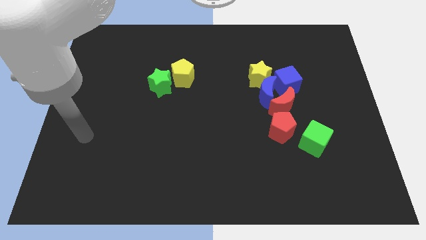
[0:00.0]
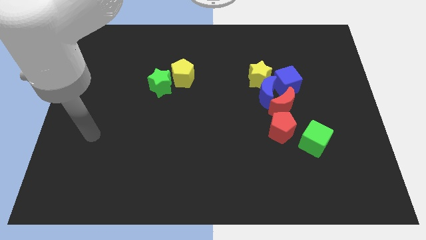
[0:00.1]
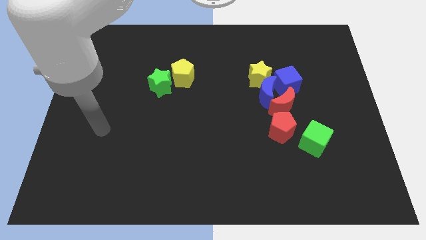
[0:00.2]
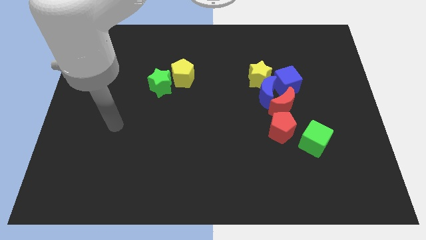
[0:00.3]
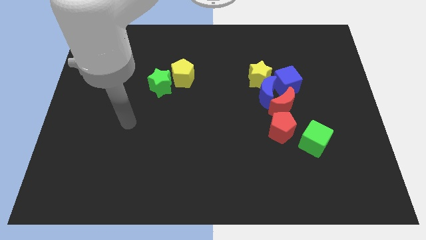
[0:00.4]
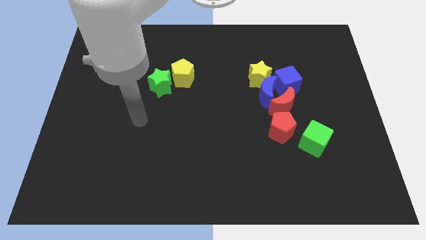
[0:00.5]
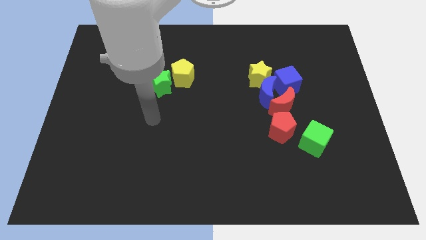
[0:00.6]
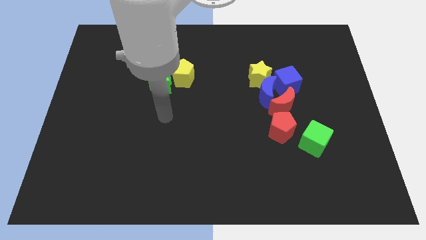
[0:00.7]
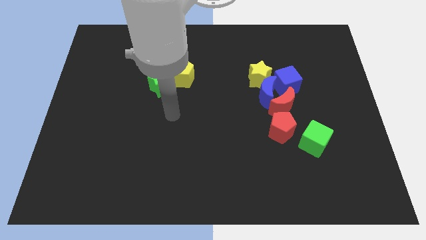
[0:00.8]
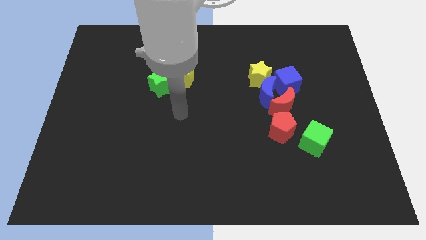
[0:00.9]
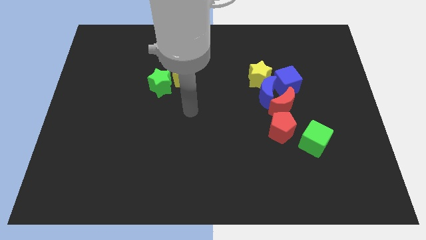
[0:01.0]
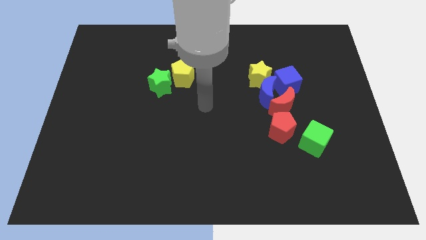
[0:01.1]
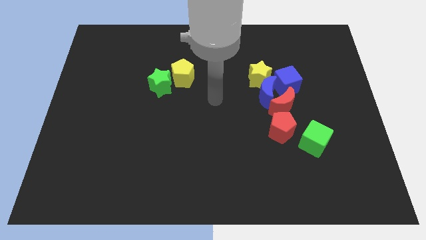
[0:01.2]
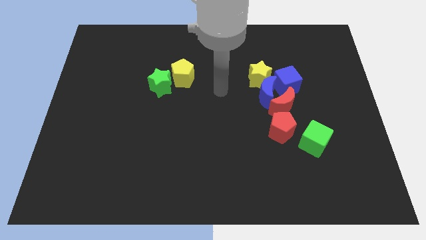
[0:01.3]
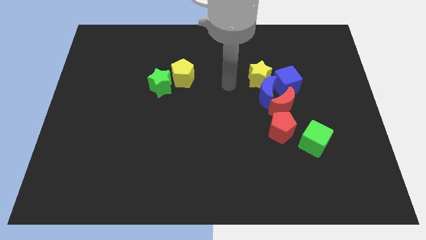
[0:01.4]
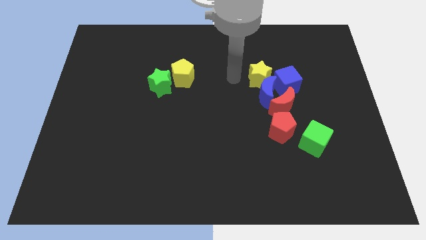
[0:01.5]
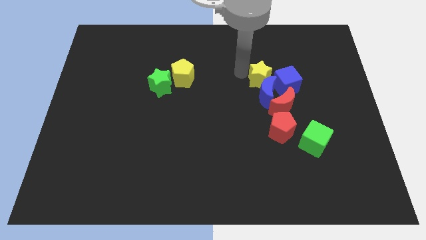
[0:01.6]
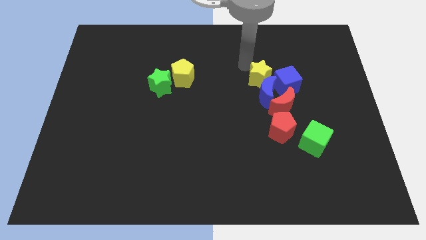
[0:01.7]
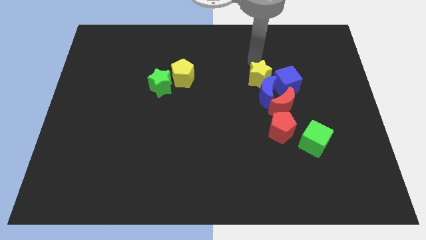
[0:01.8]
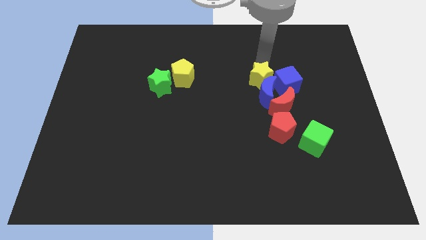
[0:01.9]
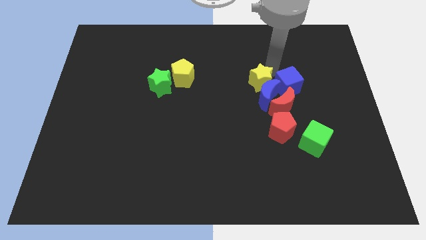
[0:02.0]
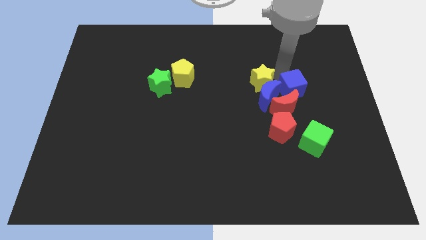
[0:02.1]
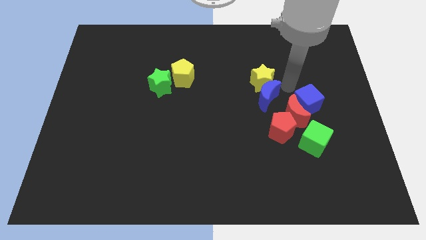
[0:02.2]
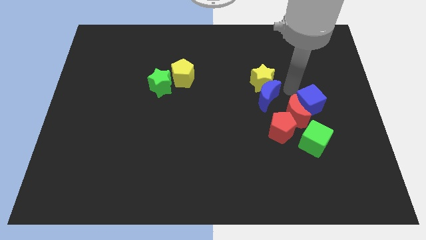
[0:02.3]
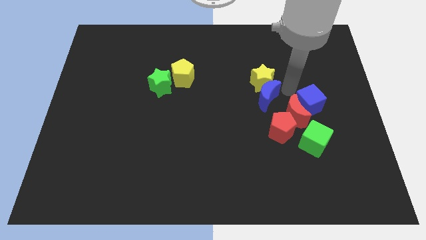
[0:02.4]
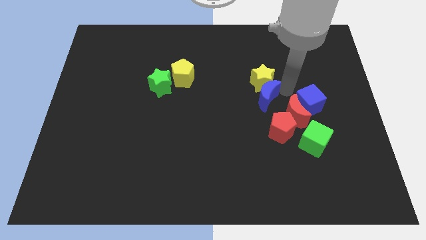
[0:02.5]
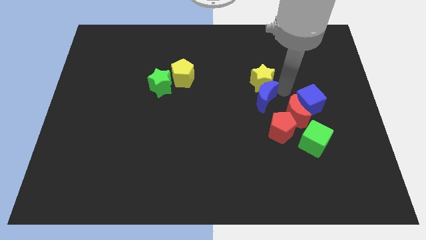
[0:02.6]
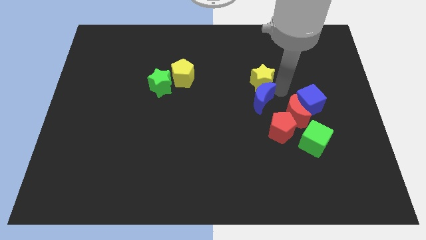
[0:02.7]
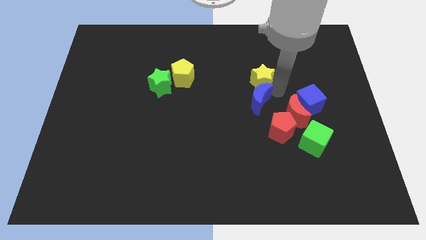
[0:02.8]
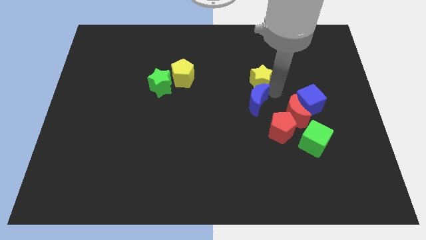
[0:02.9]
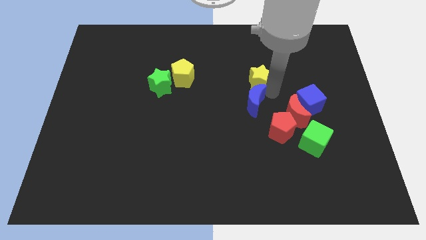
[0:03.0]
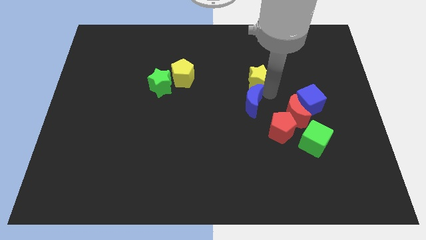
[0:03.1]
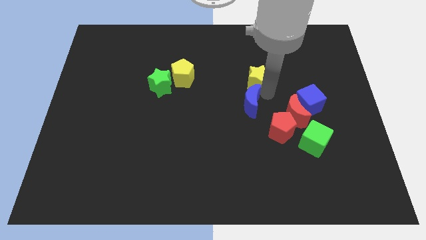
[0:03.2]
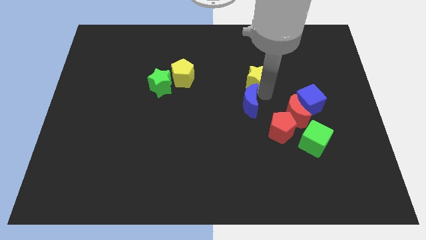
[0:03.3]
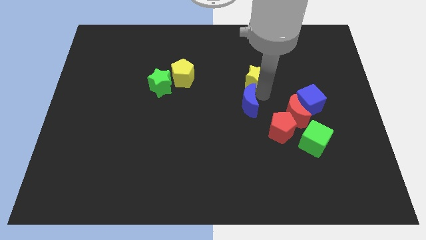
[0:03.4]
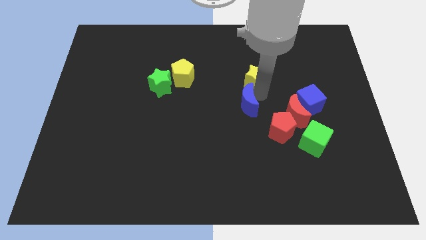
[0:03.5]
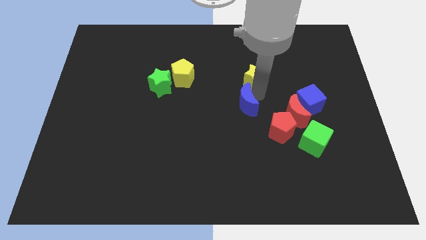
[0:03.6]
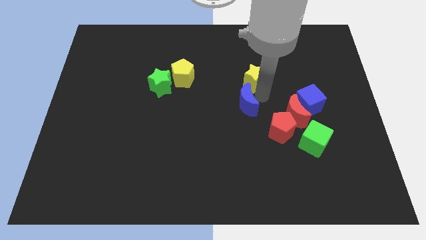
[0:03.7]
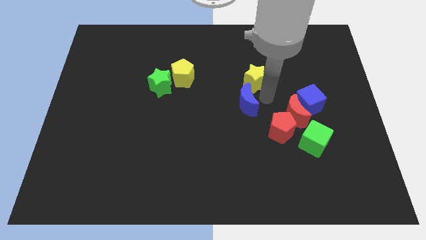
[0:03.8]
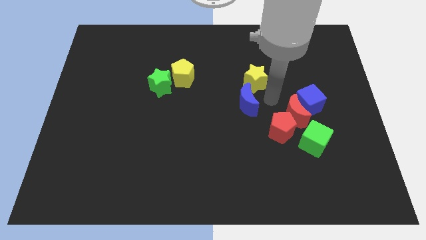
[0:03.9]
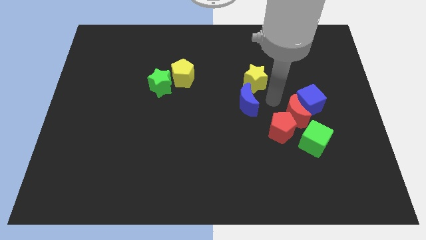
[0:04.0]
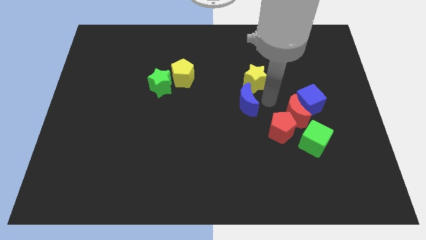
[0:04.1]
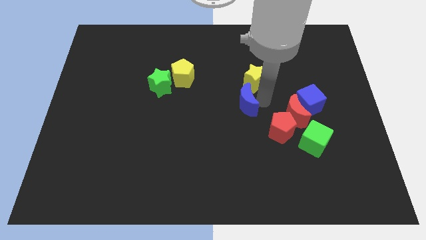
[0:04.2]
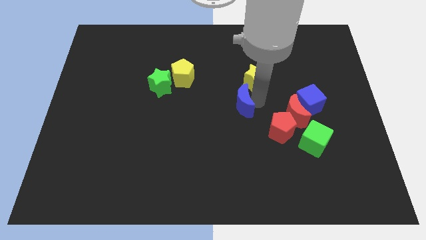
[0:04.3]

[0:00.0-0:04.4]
move the blue moon away from the group of blocks

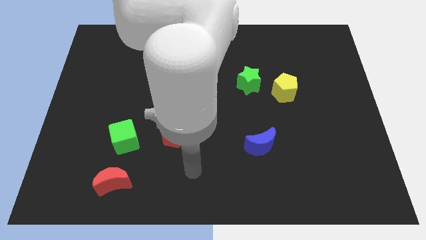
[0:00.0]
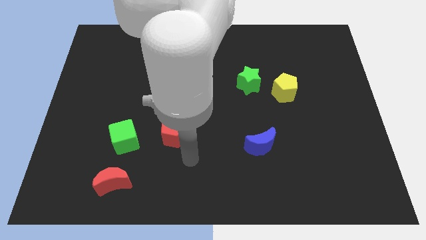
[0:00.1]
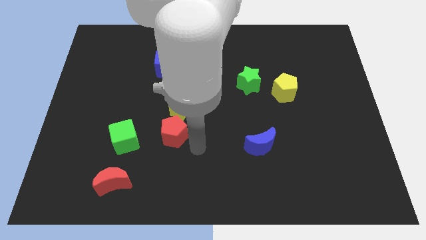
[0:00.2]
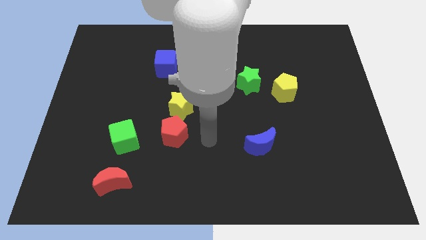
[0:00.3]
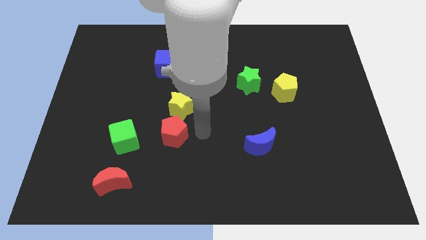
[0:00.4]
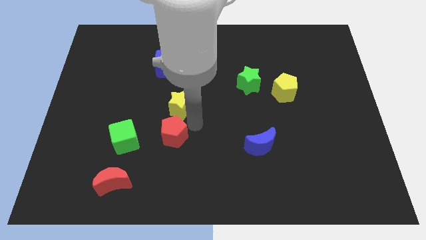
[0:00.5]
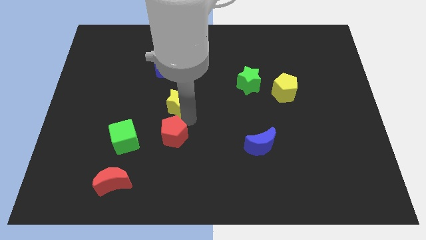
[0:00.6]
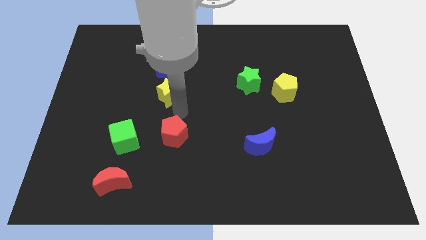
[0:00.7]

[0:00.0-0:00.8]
pull the red pentagon apart from the yellow star

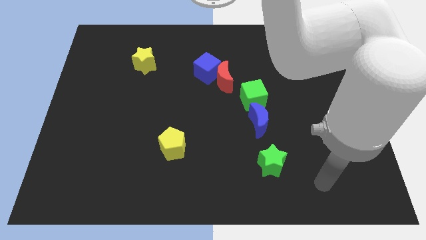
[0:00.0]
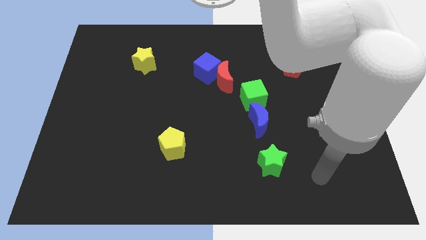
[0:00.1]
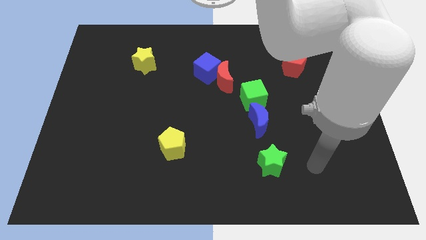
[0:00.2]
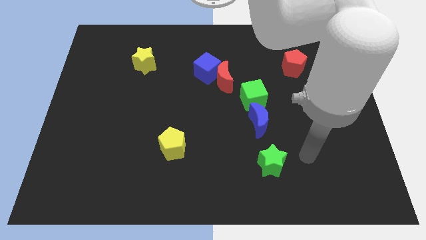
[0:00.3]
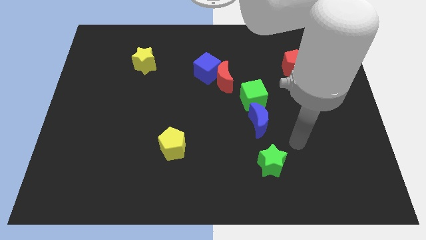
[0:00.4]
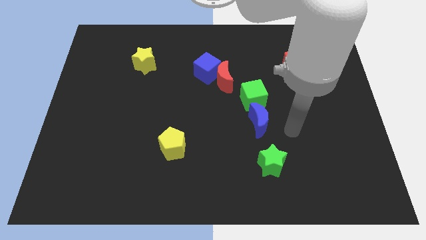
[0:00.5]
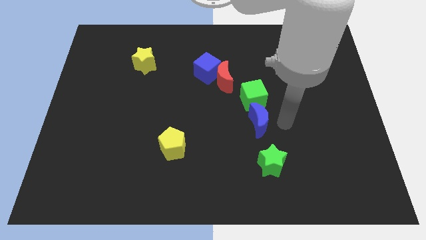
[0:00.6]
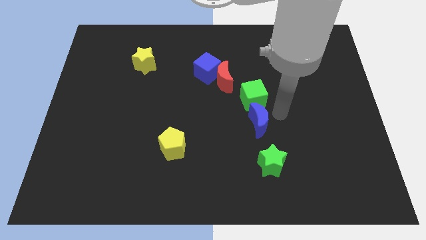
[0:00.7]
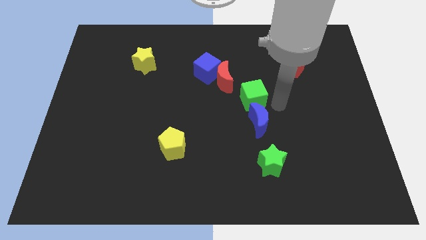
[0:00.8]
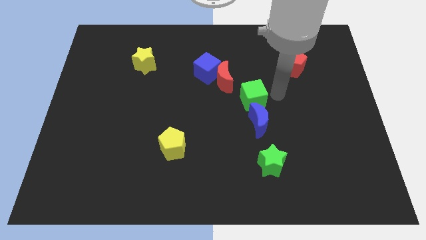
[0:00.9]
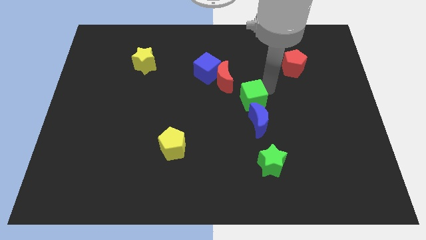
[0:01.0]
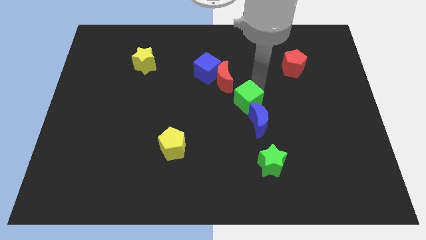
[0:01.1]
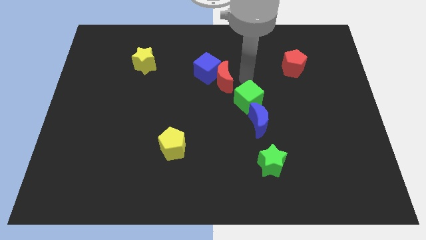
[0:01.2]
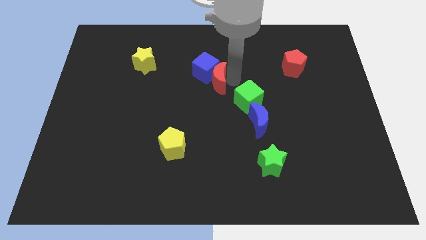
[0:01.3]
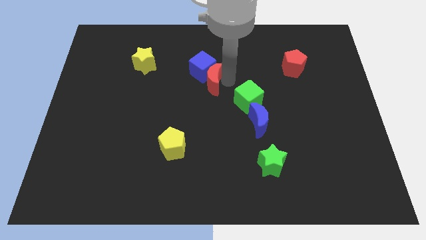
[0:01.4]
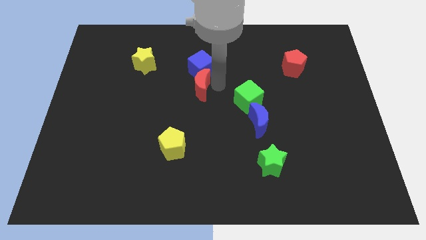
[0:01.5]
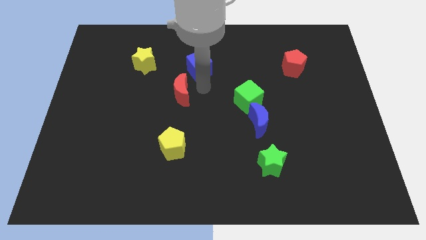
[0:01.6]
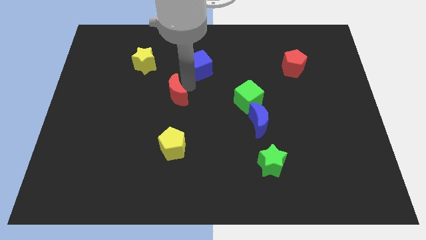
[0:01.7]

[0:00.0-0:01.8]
separate the blue cube from the red moon

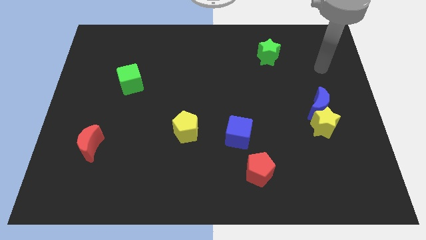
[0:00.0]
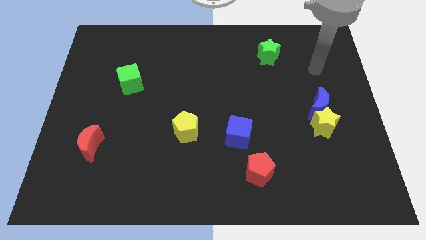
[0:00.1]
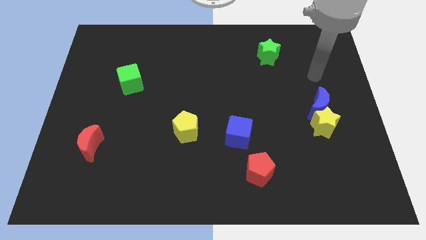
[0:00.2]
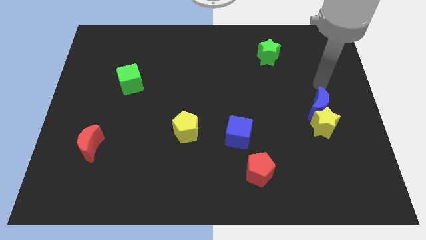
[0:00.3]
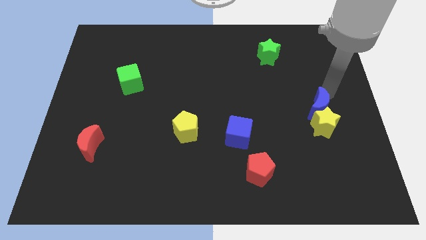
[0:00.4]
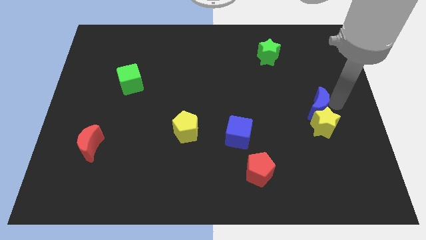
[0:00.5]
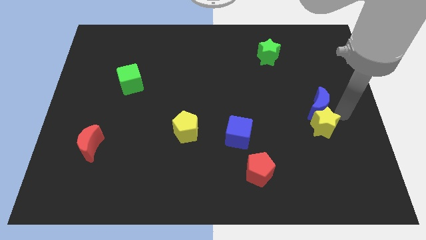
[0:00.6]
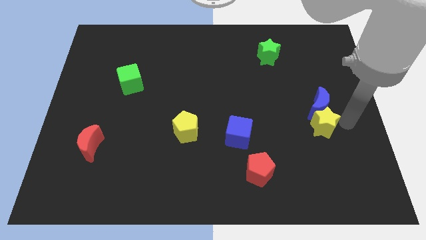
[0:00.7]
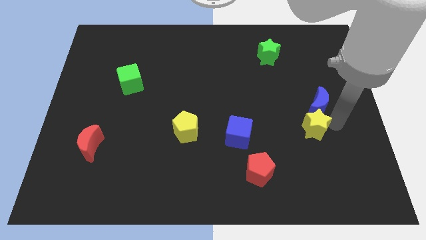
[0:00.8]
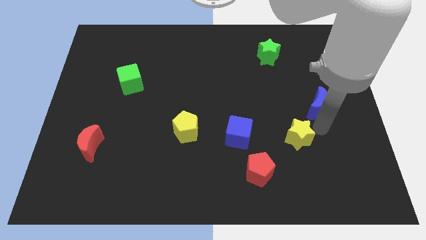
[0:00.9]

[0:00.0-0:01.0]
separate the blue moon from the yellow star

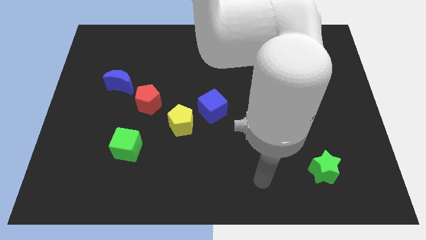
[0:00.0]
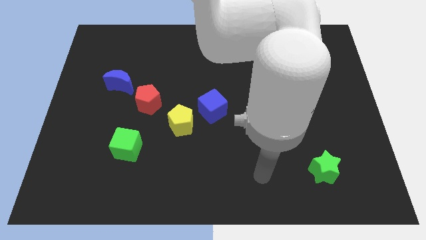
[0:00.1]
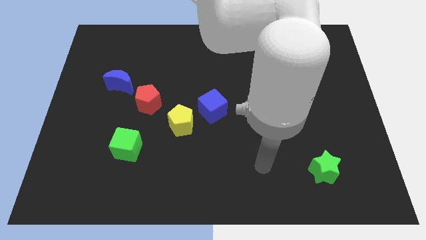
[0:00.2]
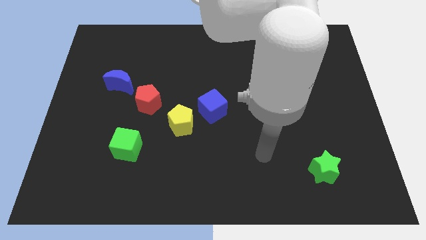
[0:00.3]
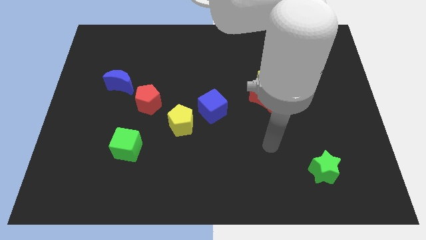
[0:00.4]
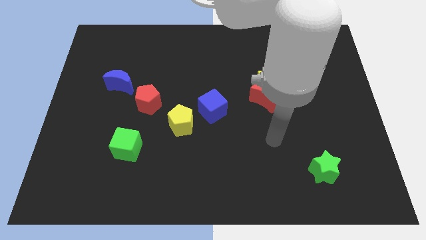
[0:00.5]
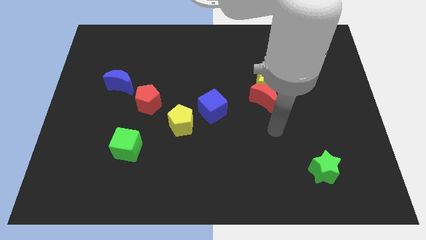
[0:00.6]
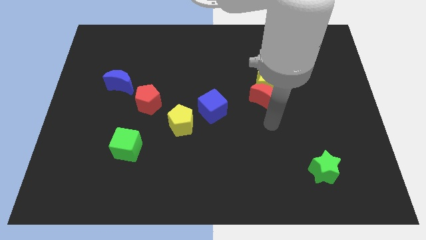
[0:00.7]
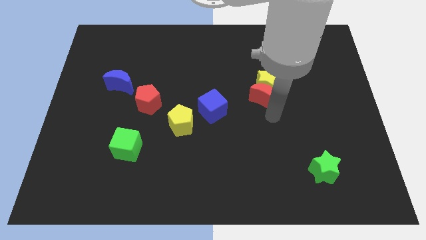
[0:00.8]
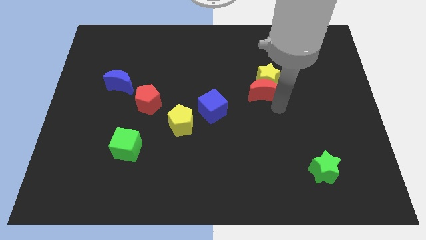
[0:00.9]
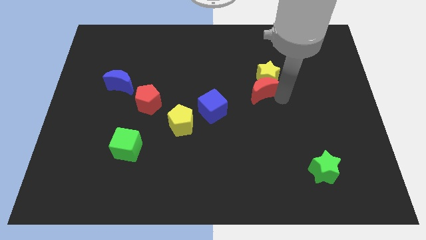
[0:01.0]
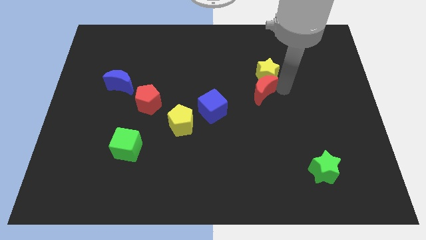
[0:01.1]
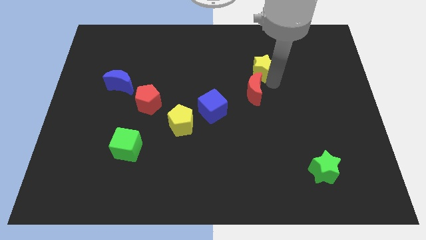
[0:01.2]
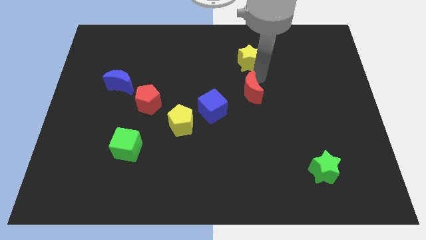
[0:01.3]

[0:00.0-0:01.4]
separate the red moon from the yellow star
